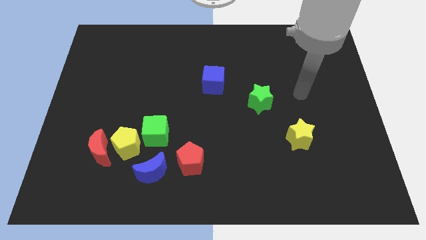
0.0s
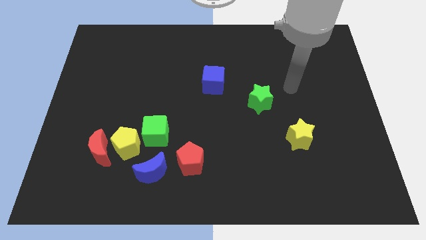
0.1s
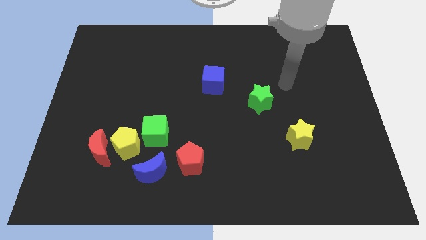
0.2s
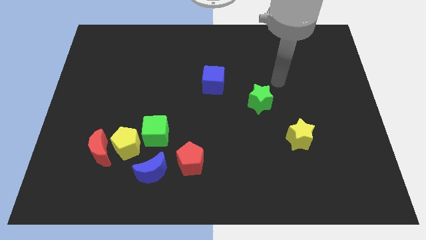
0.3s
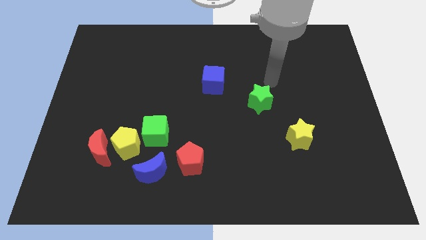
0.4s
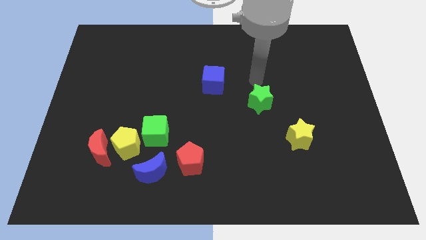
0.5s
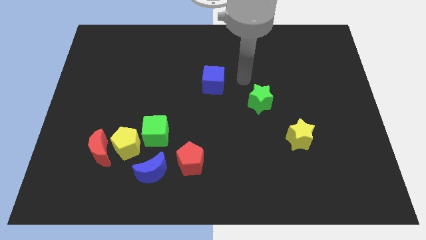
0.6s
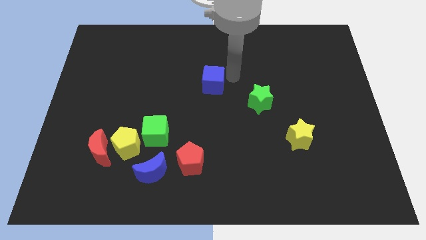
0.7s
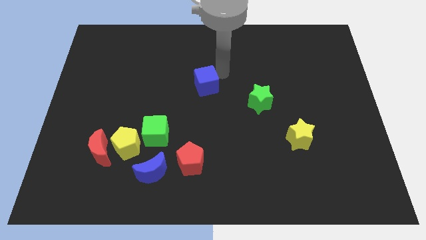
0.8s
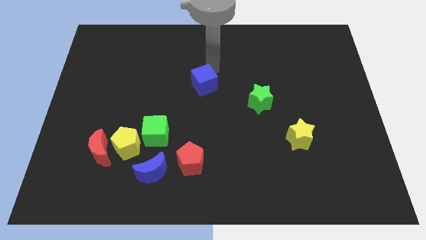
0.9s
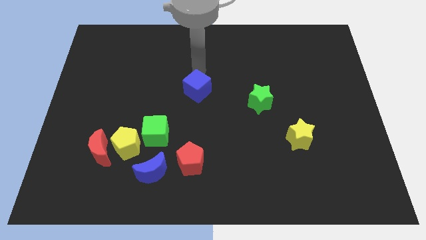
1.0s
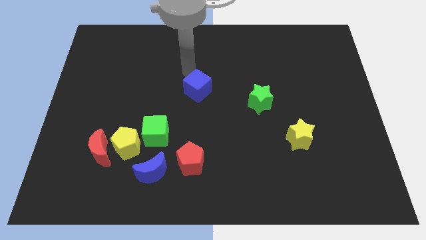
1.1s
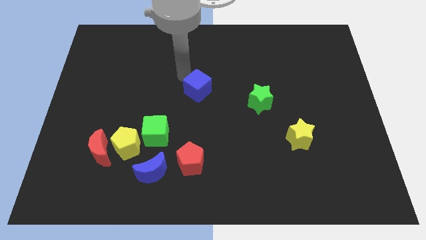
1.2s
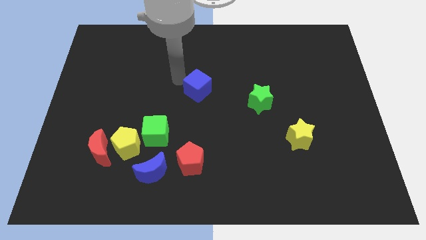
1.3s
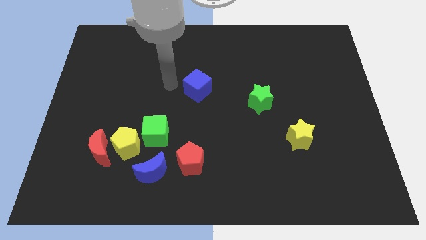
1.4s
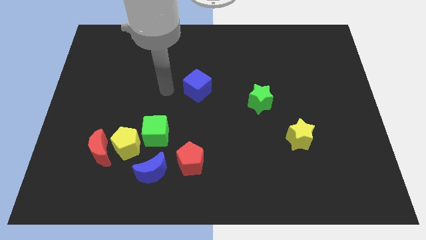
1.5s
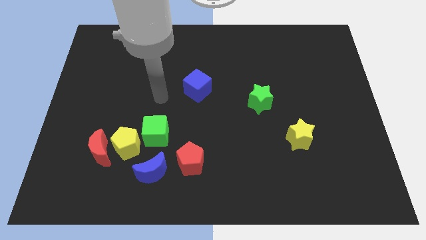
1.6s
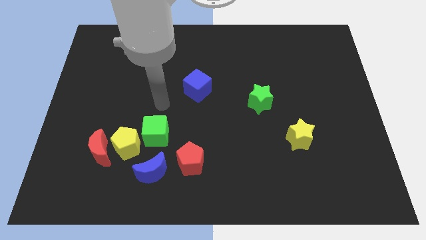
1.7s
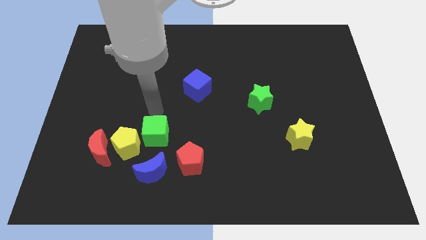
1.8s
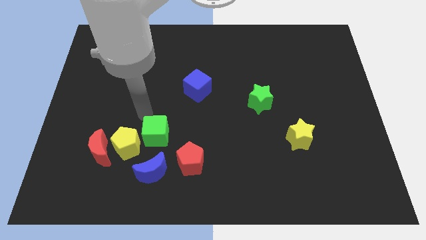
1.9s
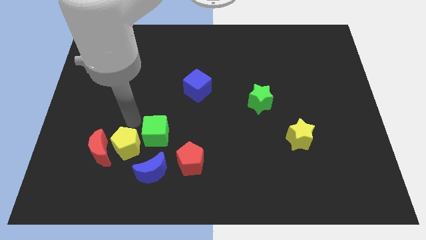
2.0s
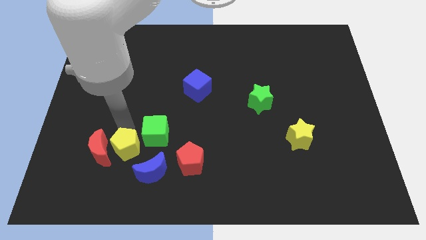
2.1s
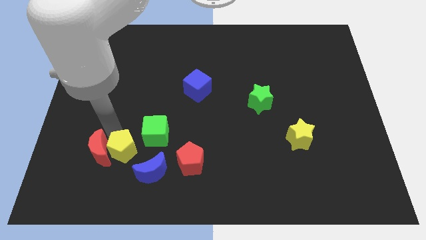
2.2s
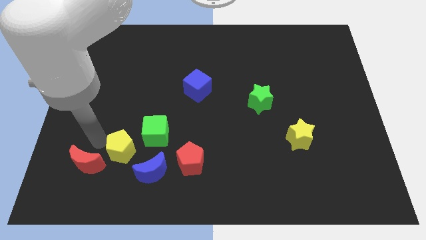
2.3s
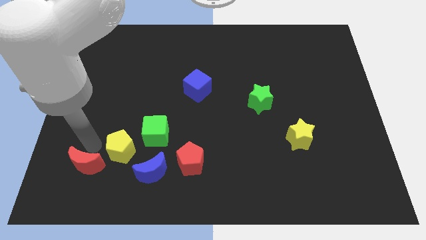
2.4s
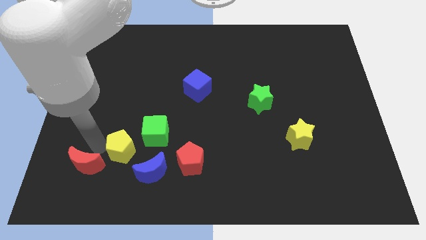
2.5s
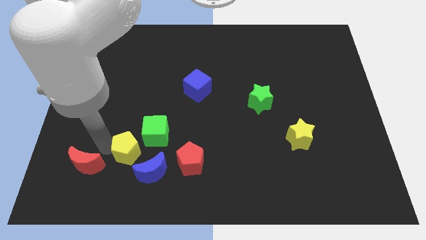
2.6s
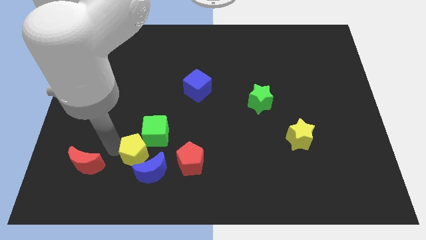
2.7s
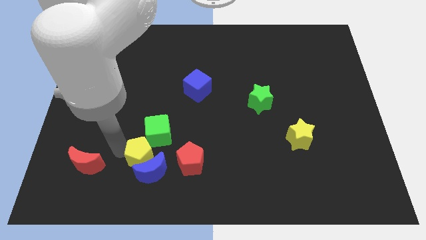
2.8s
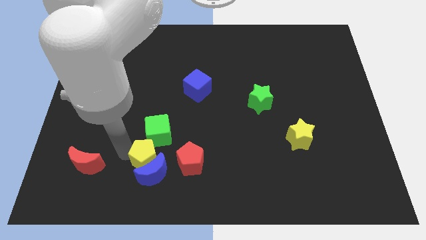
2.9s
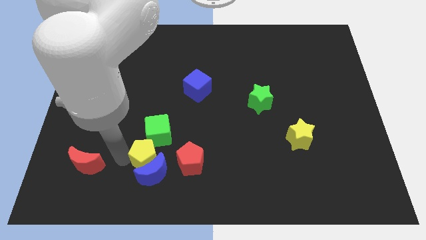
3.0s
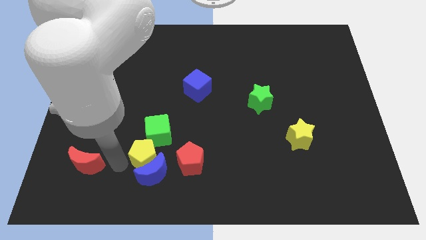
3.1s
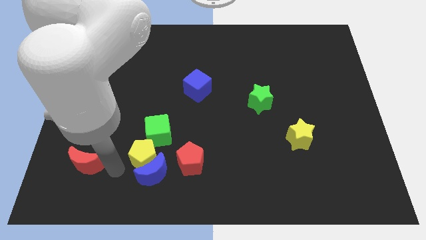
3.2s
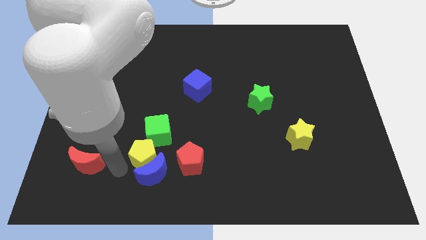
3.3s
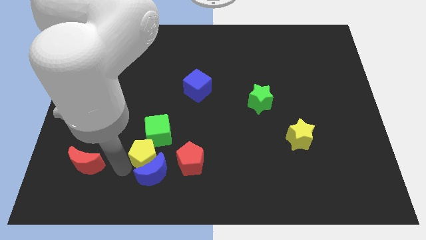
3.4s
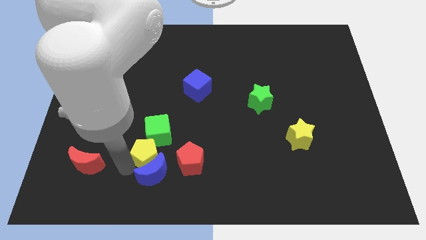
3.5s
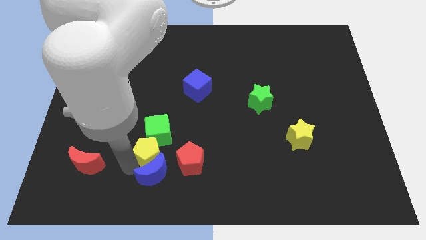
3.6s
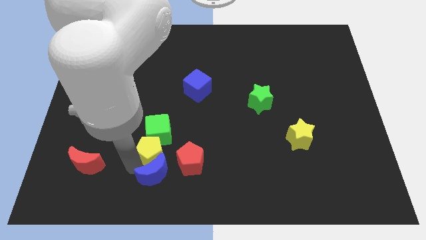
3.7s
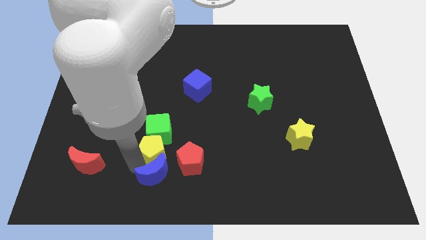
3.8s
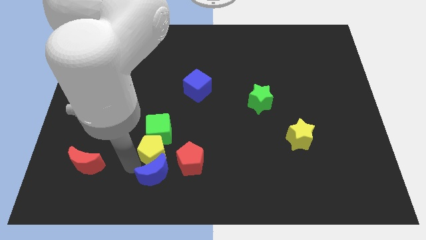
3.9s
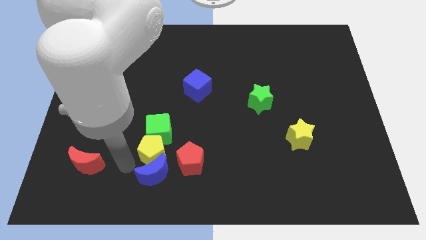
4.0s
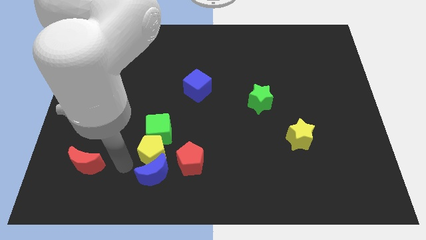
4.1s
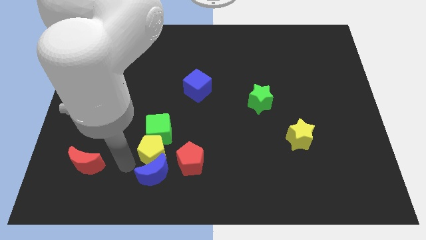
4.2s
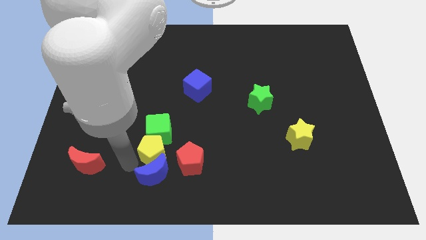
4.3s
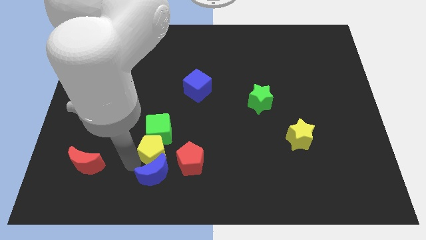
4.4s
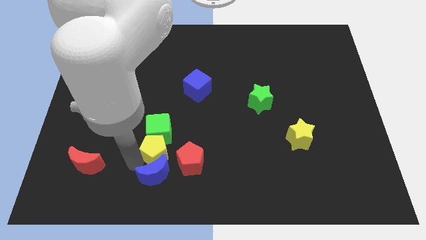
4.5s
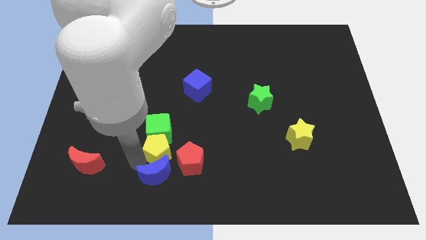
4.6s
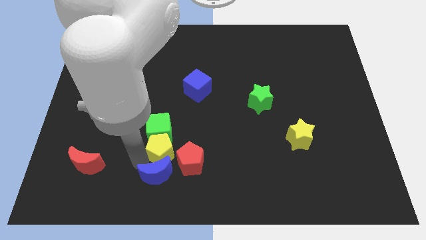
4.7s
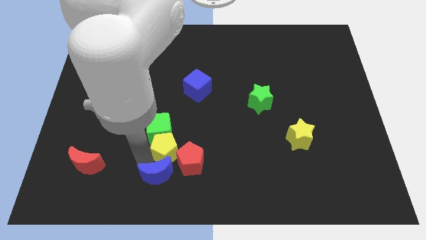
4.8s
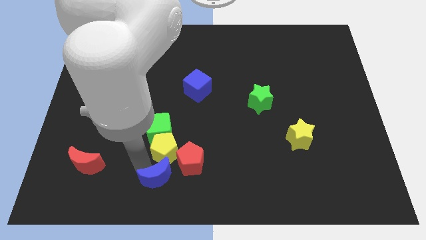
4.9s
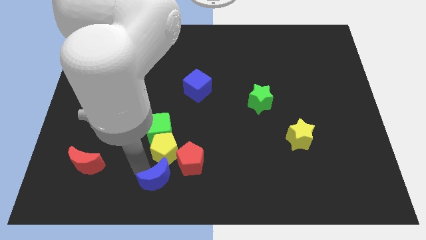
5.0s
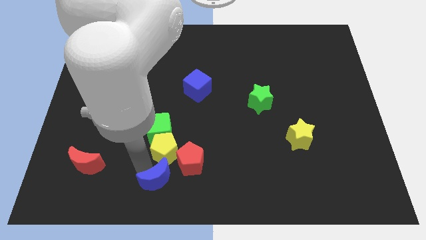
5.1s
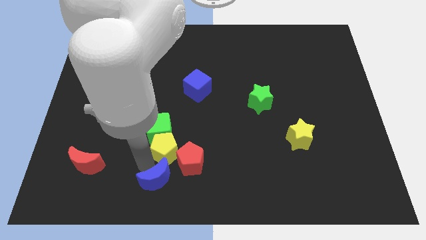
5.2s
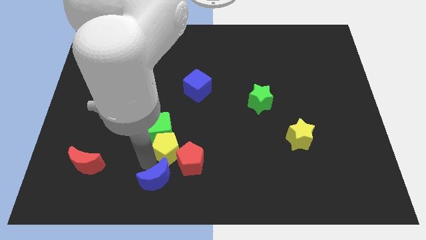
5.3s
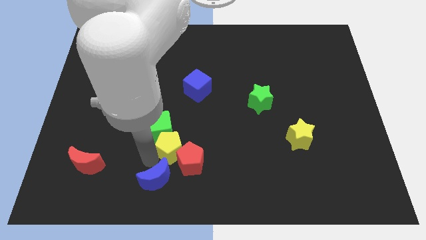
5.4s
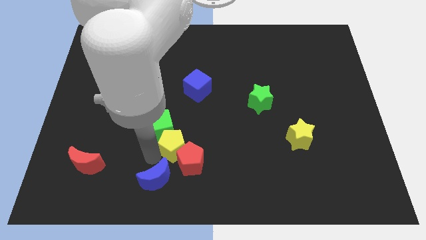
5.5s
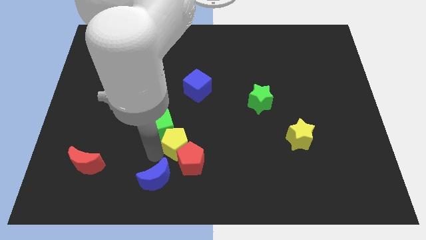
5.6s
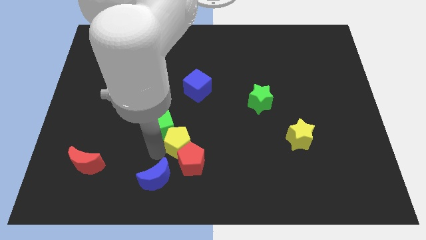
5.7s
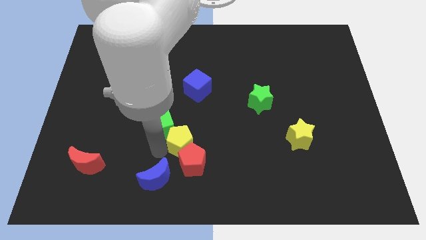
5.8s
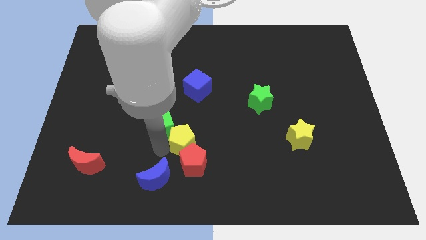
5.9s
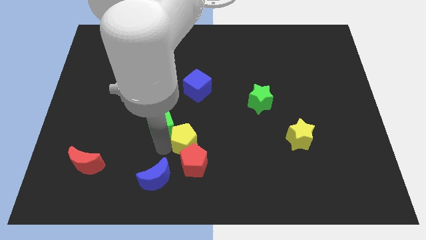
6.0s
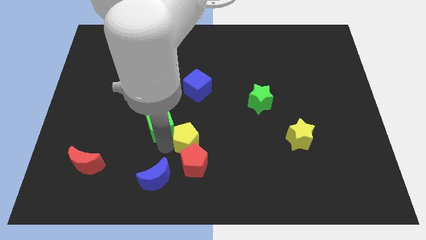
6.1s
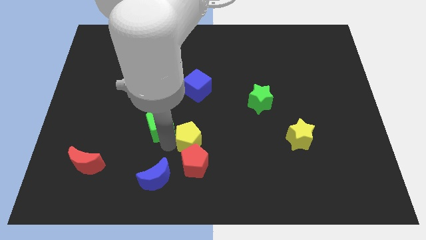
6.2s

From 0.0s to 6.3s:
slide the yellow pentagon to the middle
